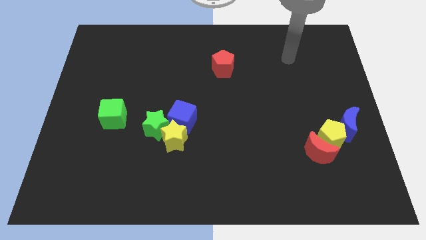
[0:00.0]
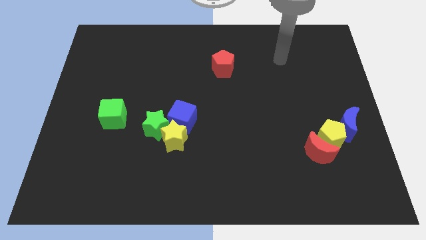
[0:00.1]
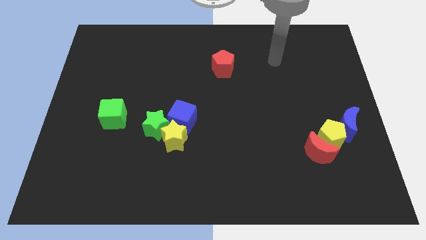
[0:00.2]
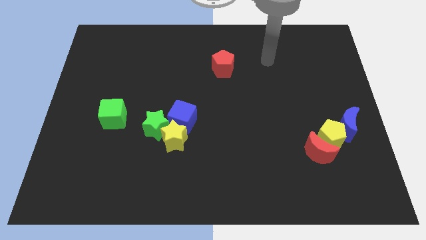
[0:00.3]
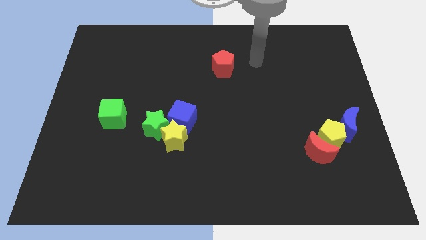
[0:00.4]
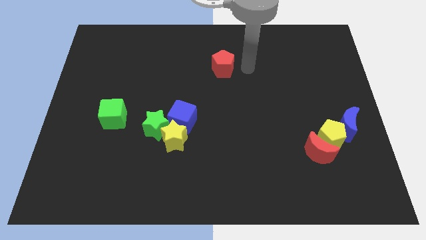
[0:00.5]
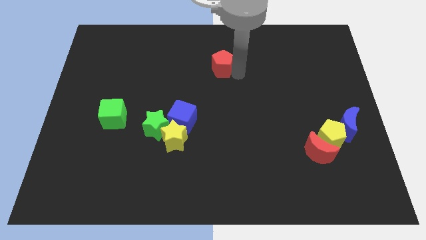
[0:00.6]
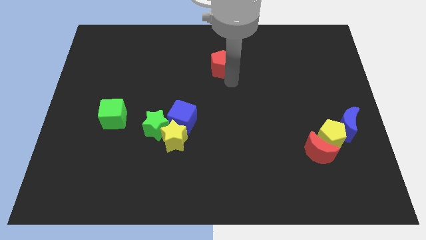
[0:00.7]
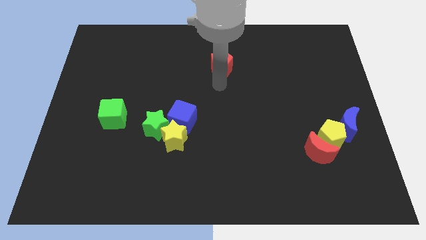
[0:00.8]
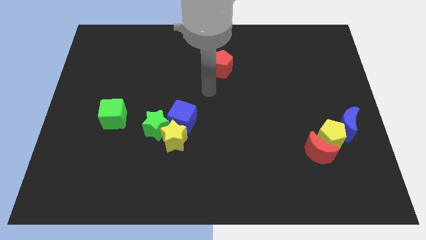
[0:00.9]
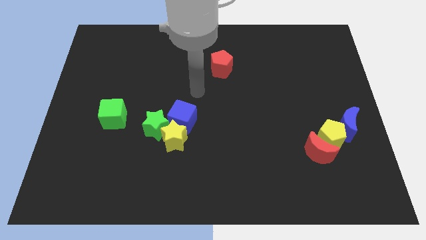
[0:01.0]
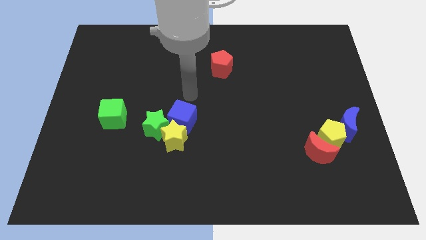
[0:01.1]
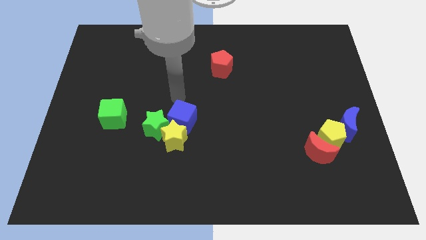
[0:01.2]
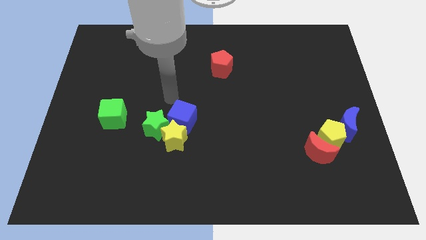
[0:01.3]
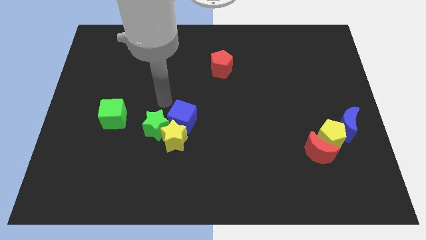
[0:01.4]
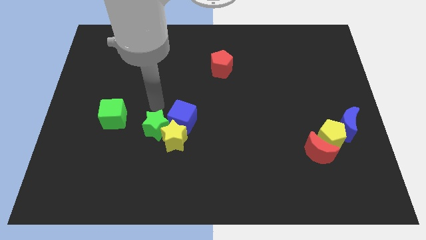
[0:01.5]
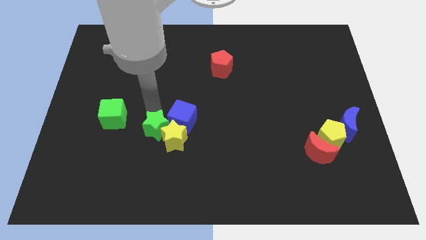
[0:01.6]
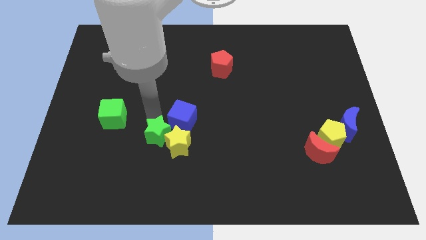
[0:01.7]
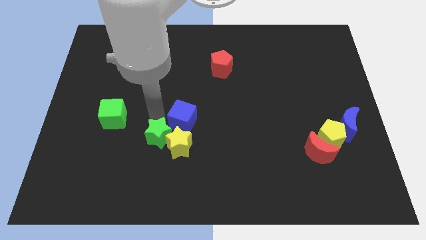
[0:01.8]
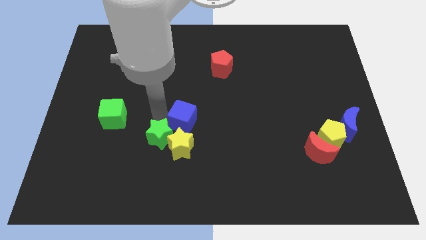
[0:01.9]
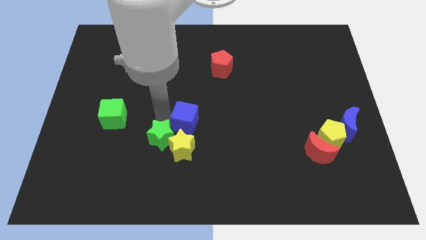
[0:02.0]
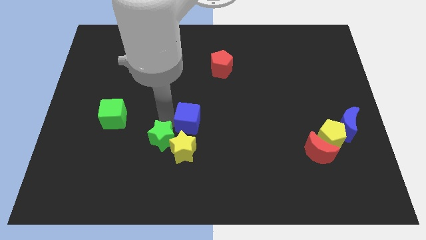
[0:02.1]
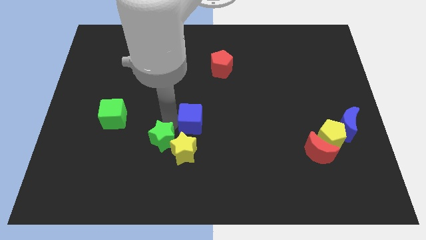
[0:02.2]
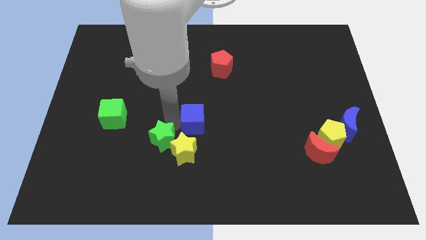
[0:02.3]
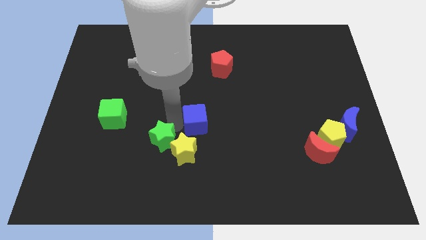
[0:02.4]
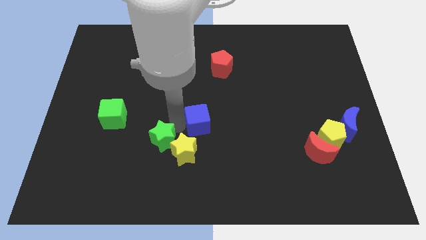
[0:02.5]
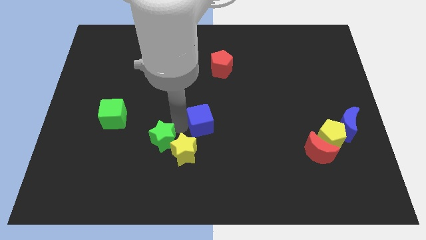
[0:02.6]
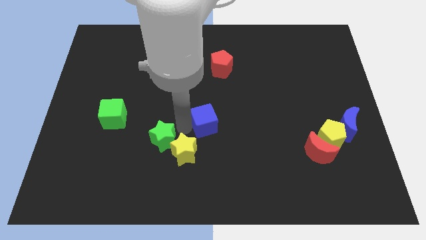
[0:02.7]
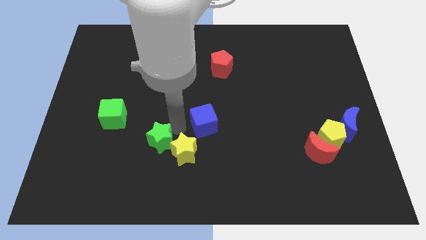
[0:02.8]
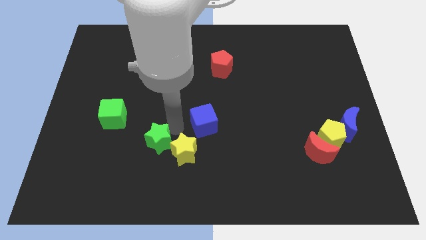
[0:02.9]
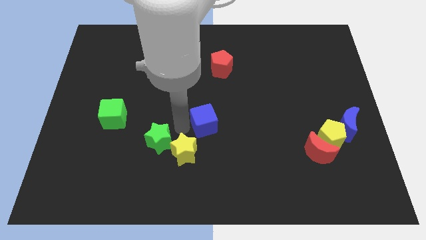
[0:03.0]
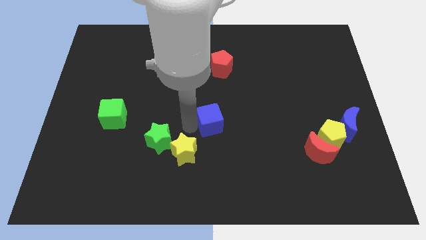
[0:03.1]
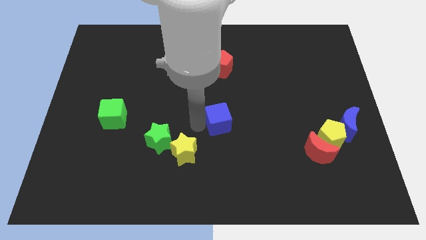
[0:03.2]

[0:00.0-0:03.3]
move the blue cube a little bit to the right

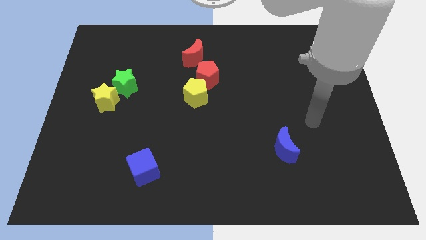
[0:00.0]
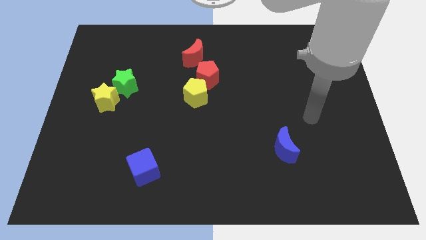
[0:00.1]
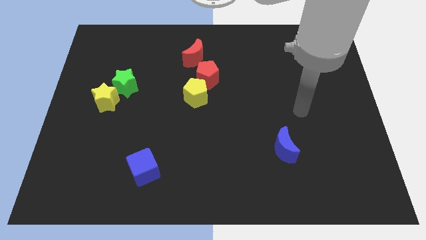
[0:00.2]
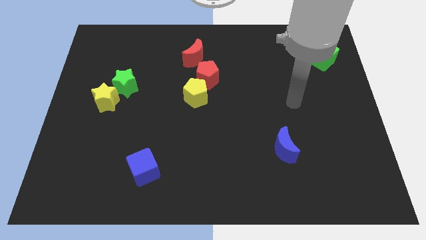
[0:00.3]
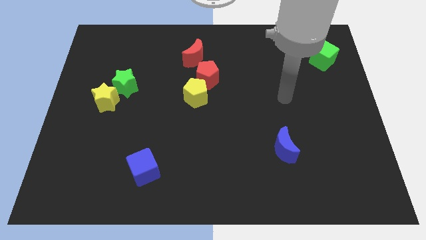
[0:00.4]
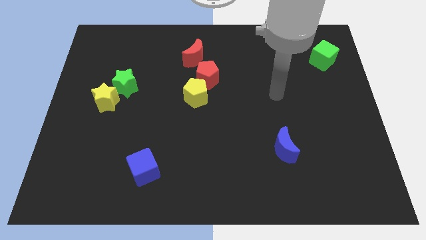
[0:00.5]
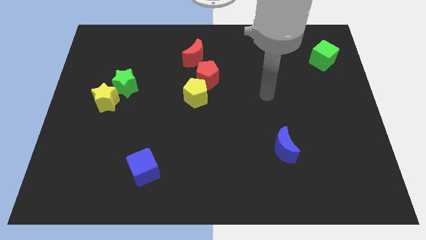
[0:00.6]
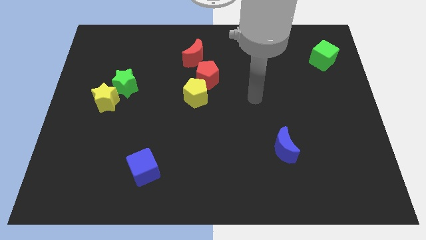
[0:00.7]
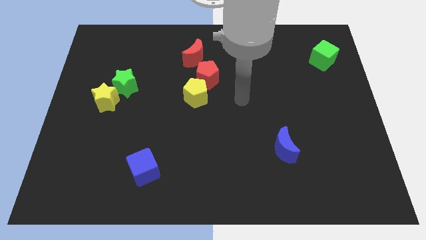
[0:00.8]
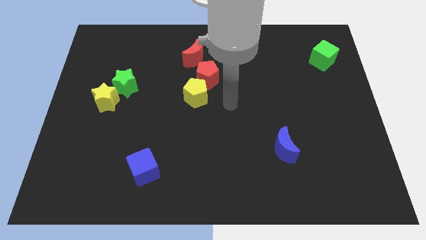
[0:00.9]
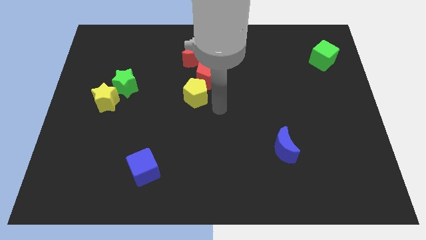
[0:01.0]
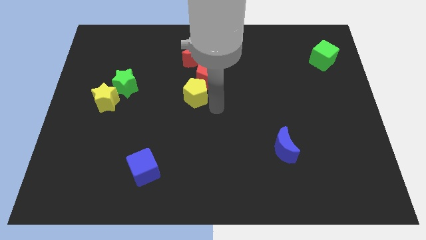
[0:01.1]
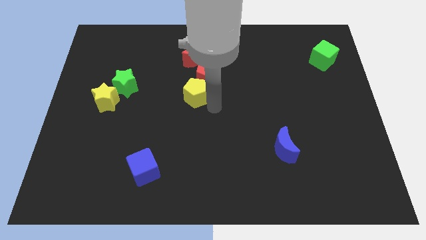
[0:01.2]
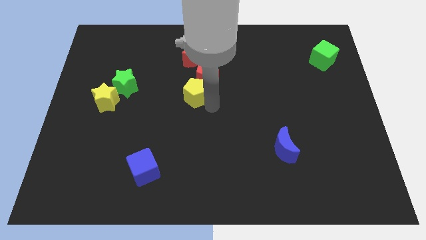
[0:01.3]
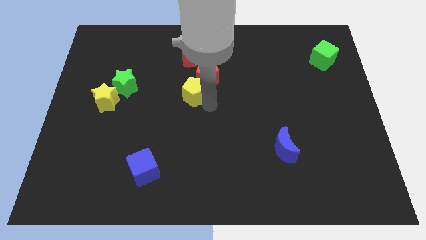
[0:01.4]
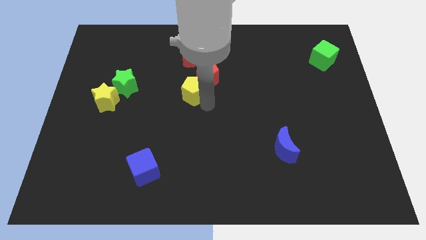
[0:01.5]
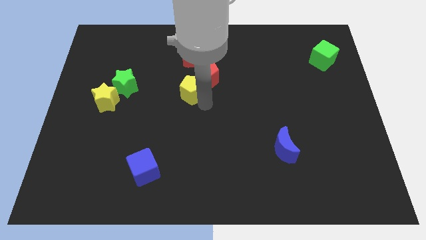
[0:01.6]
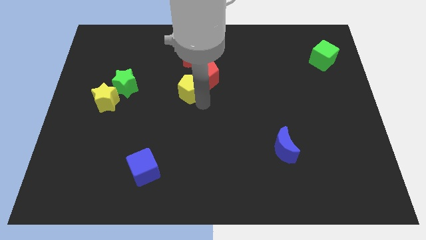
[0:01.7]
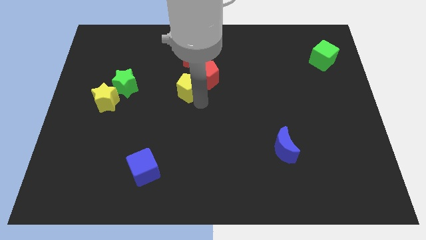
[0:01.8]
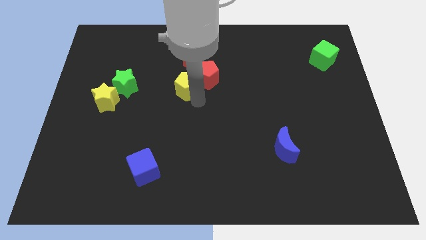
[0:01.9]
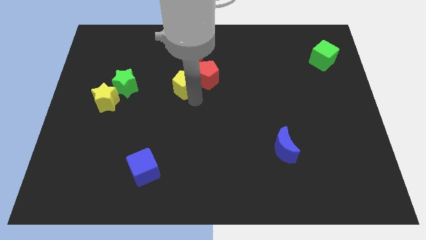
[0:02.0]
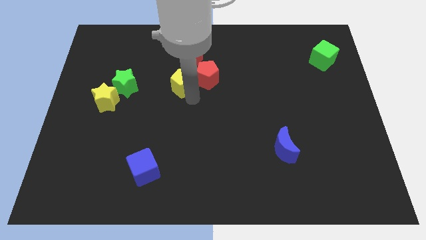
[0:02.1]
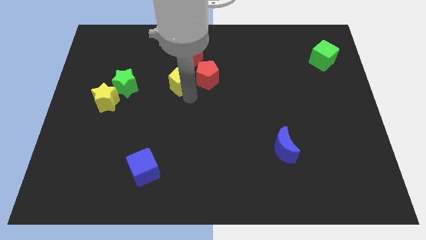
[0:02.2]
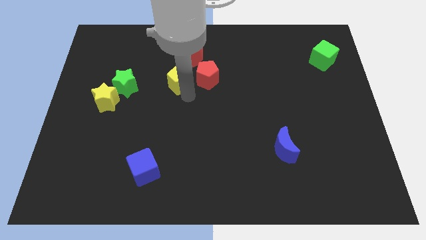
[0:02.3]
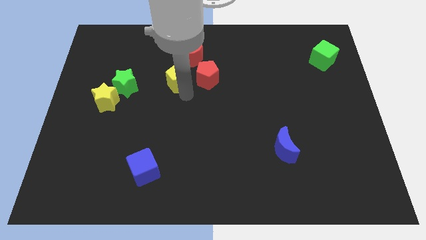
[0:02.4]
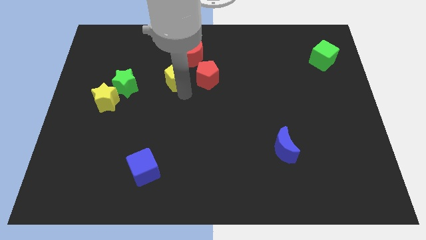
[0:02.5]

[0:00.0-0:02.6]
move the yellow pentagon upwards and to the left a little bit

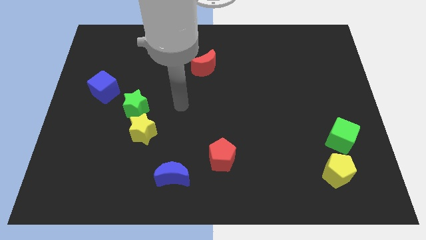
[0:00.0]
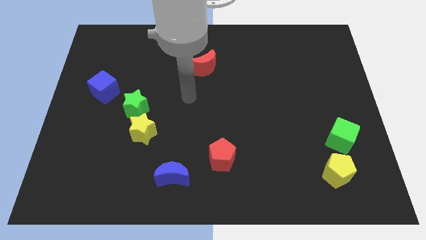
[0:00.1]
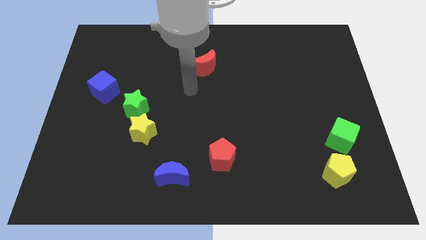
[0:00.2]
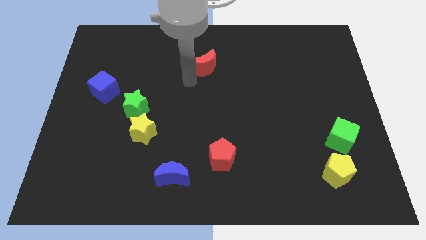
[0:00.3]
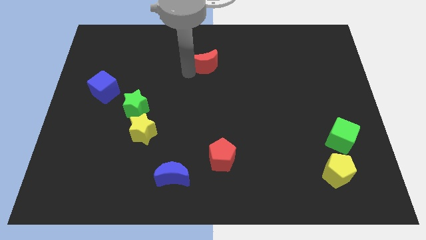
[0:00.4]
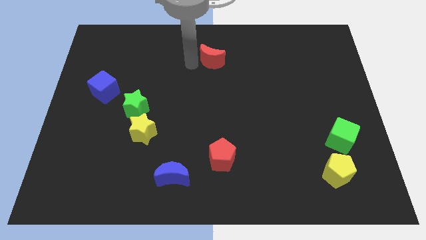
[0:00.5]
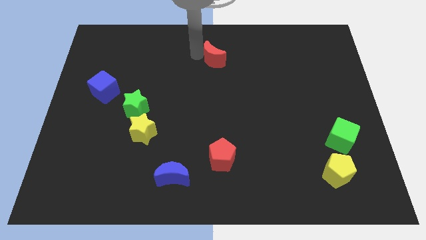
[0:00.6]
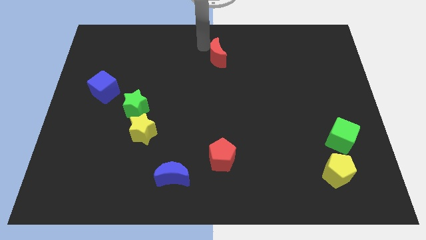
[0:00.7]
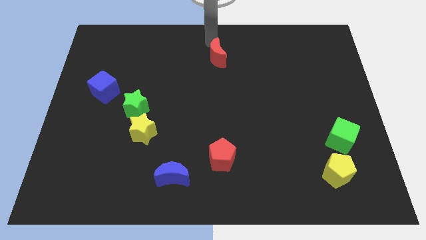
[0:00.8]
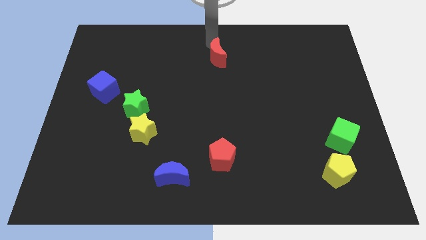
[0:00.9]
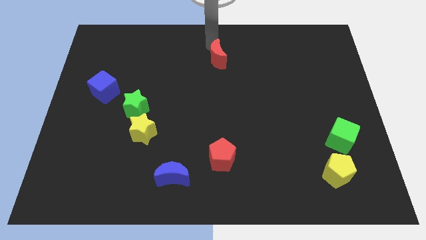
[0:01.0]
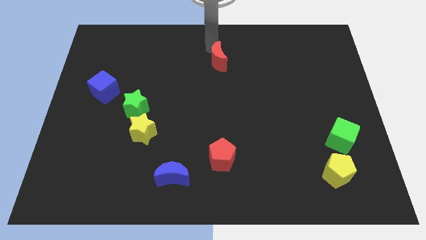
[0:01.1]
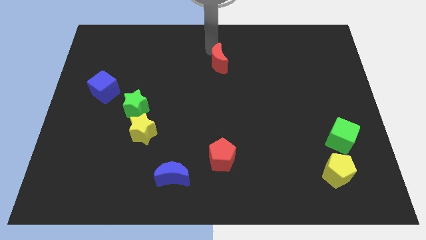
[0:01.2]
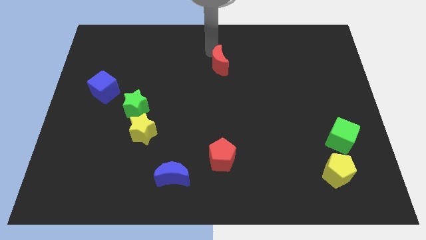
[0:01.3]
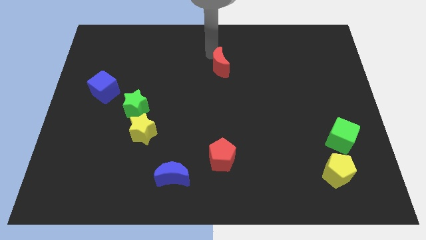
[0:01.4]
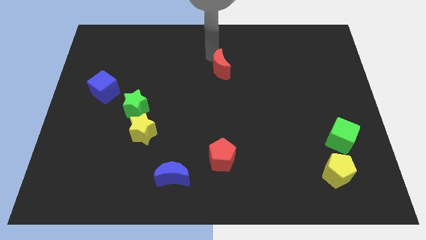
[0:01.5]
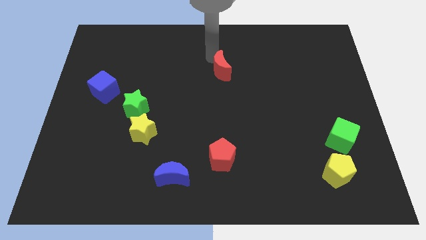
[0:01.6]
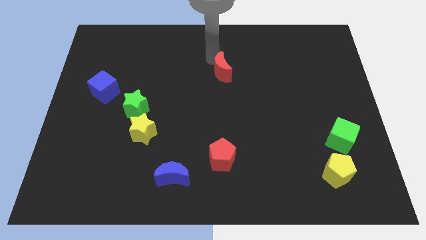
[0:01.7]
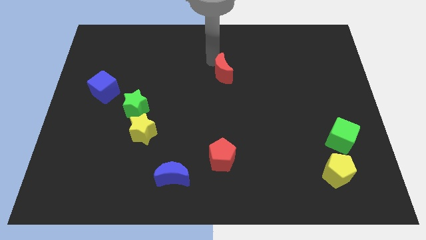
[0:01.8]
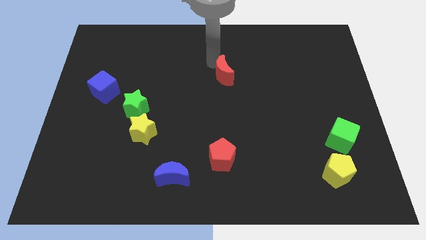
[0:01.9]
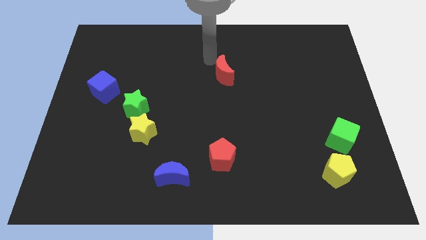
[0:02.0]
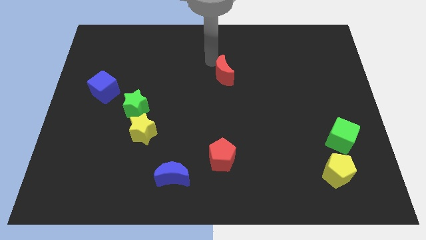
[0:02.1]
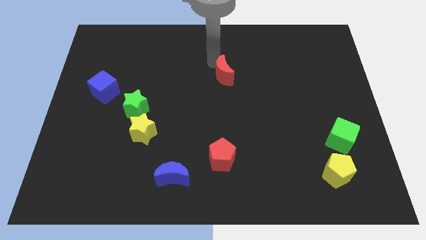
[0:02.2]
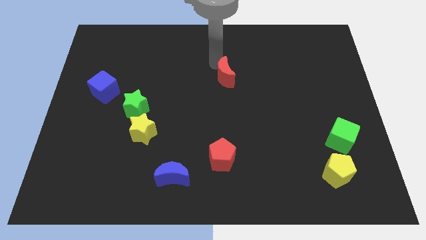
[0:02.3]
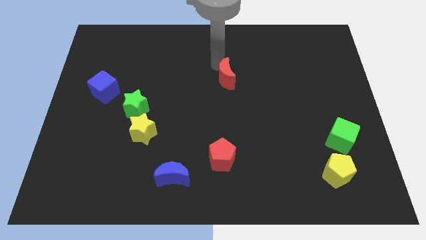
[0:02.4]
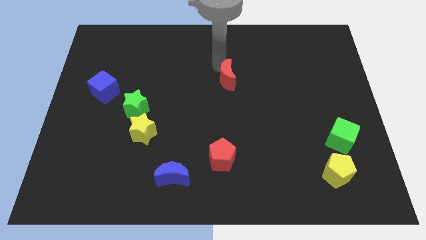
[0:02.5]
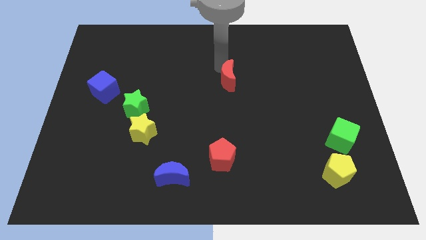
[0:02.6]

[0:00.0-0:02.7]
slightly move the red moon down and right
